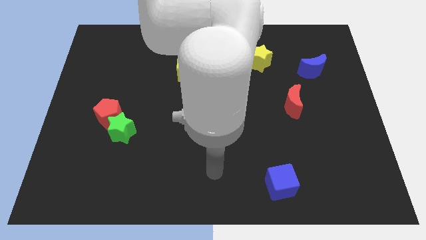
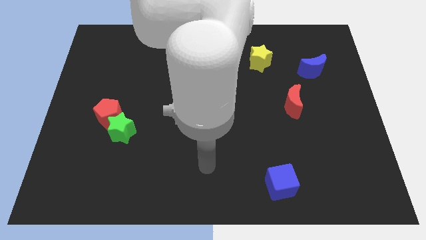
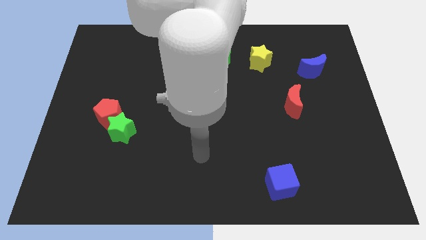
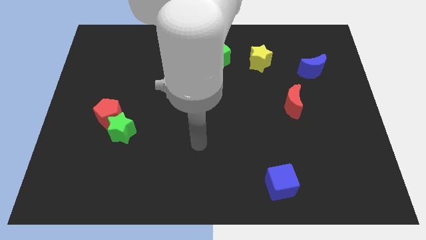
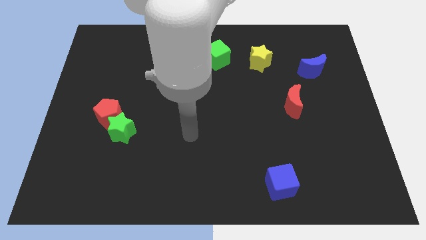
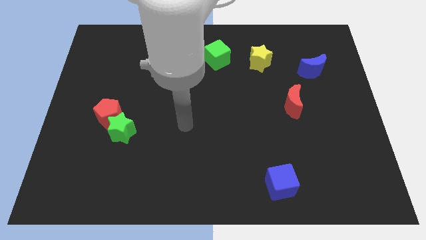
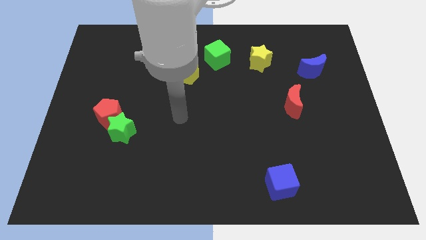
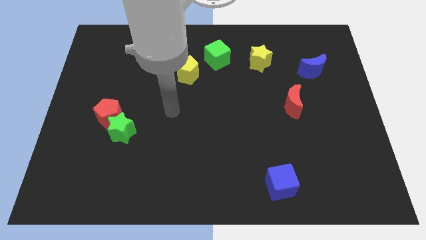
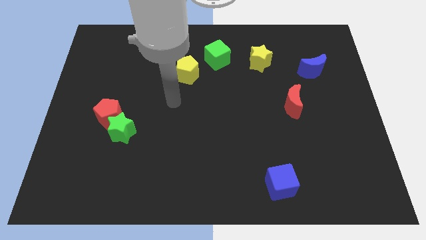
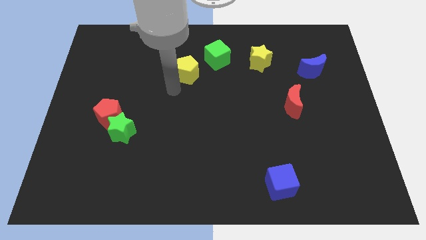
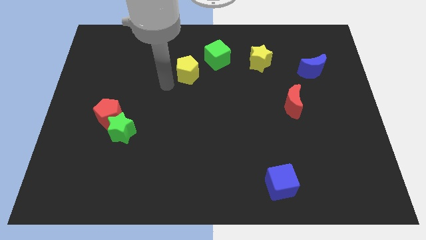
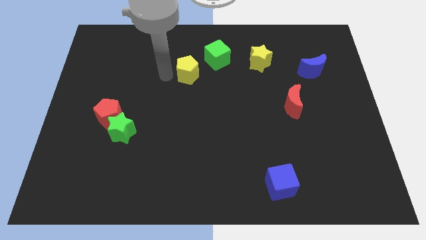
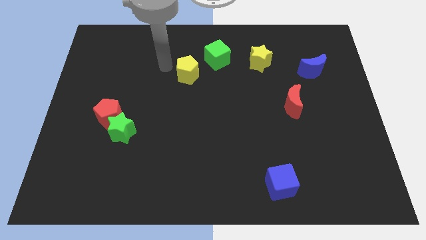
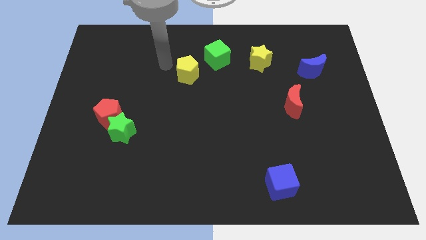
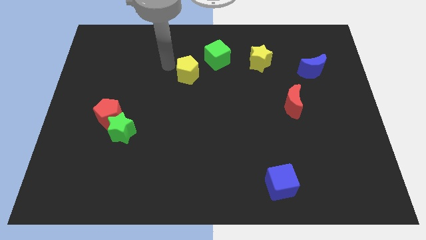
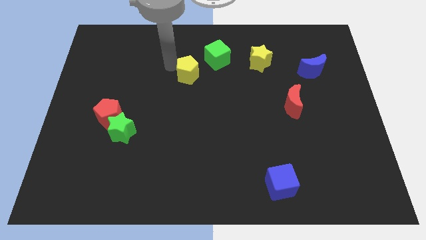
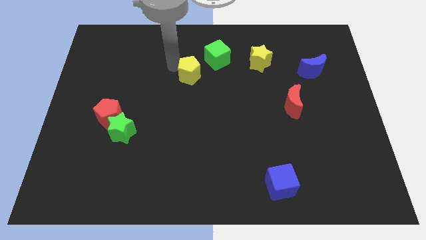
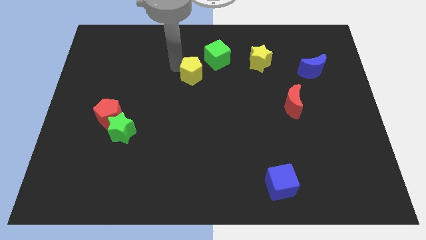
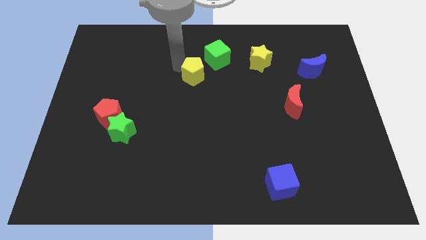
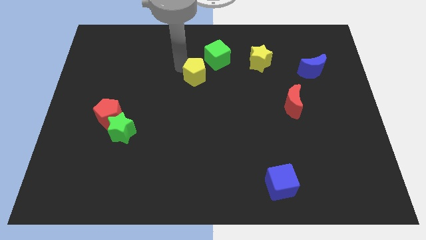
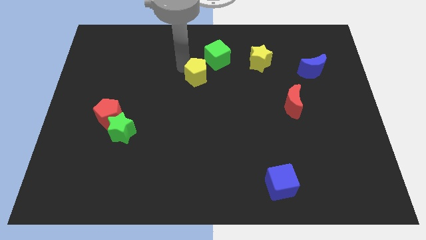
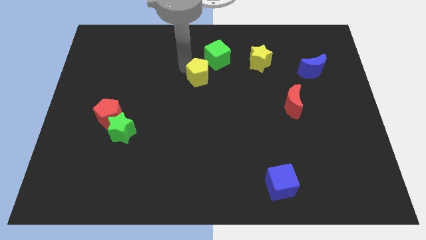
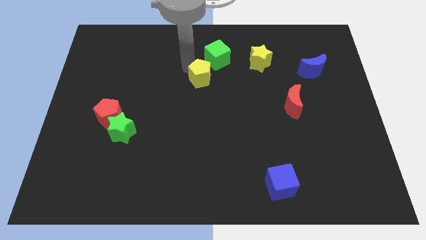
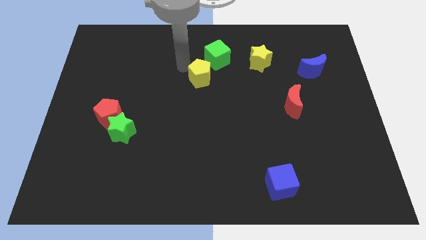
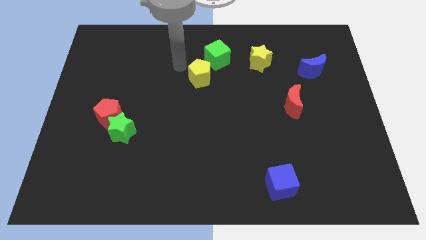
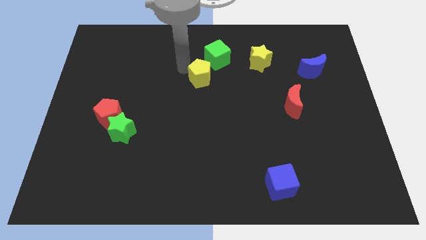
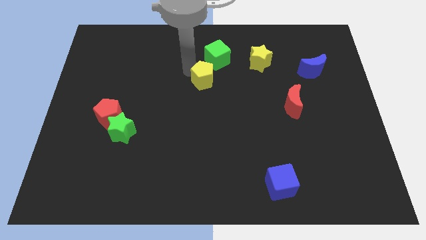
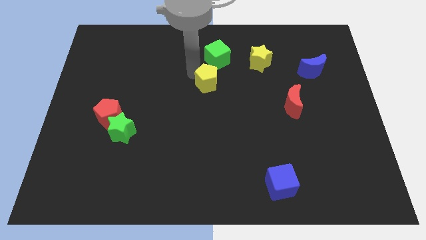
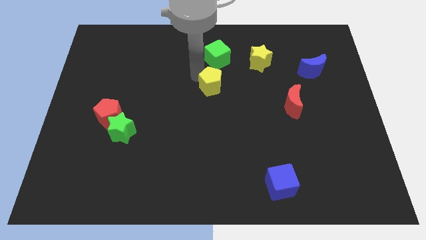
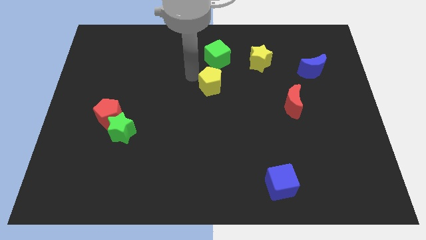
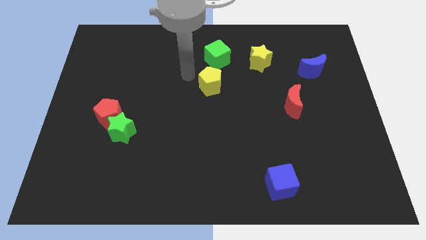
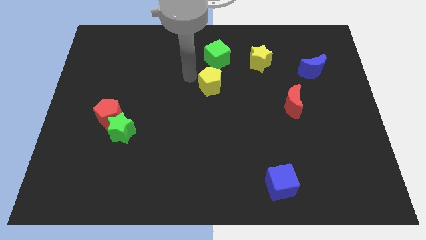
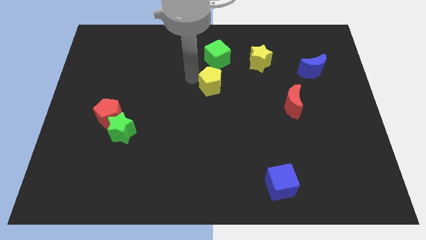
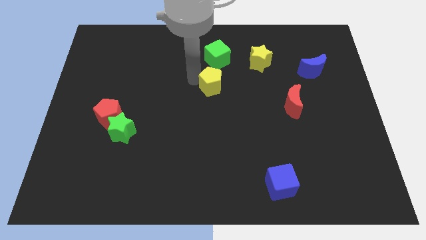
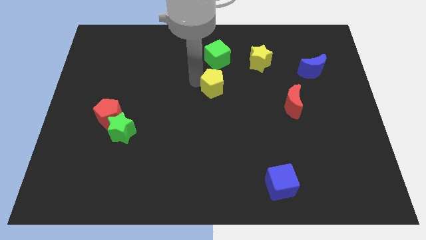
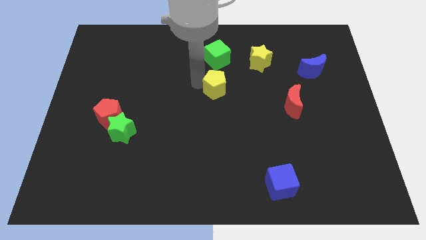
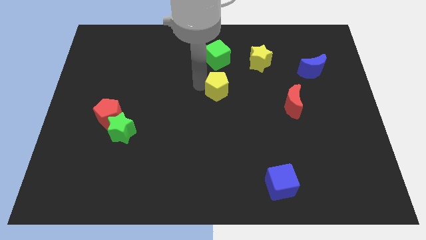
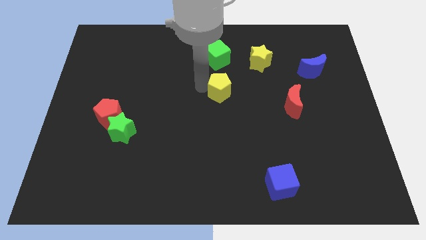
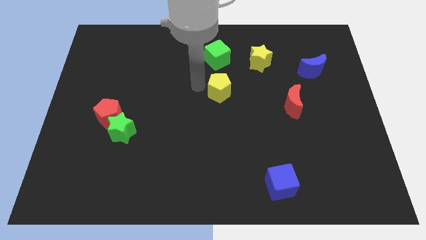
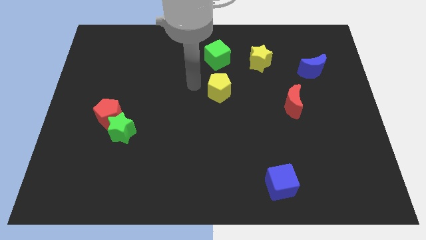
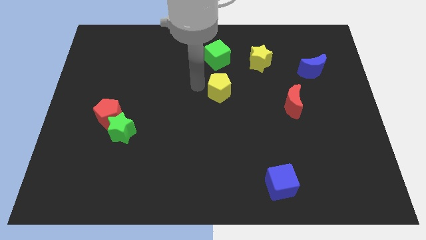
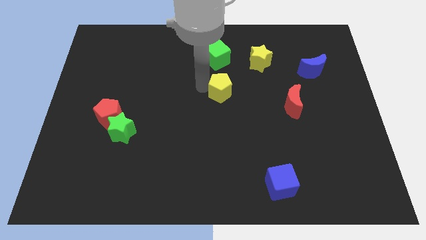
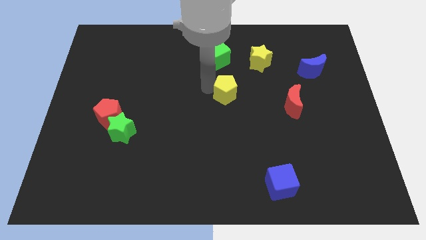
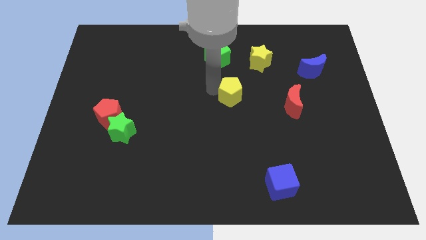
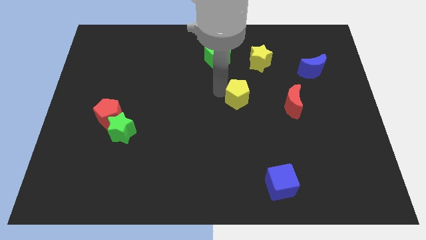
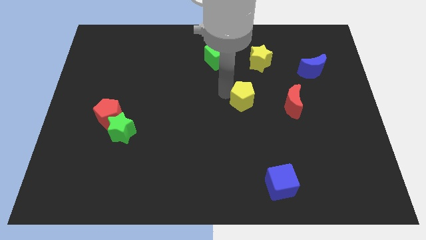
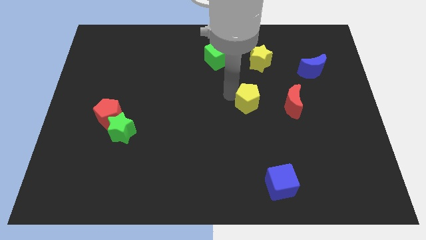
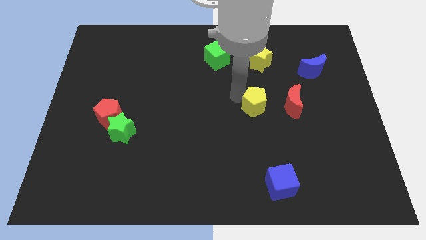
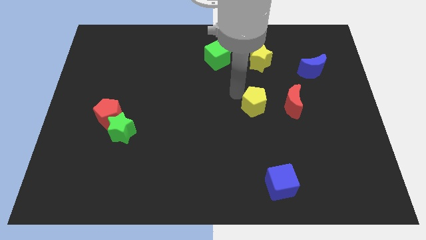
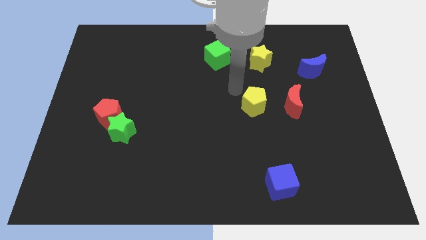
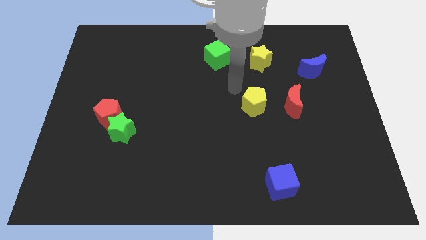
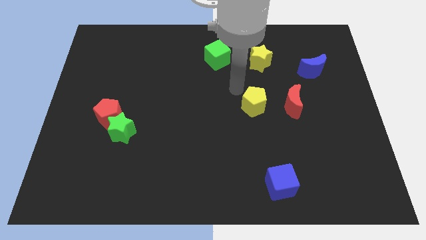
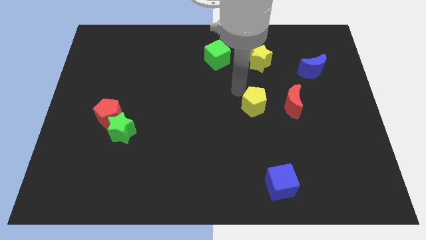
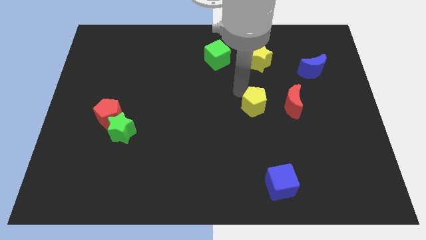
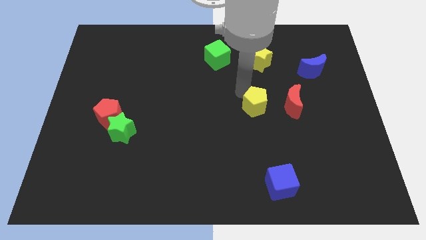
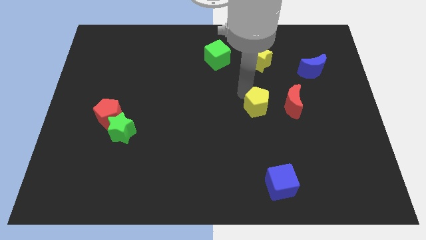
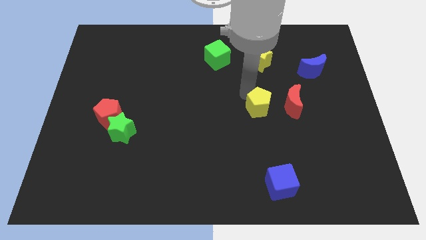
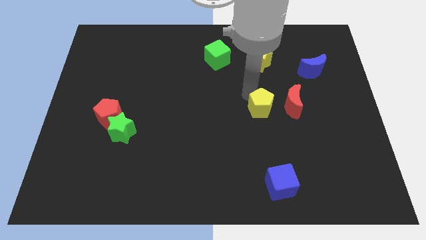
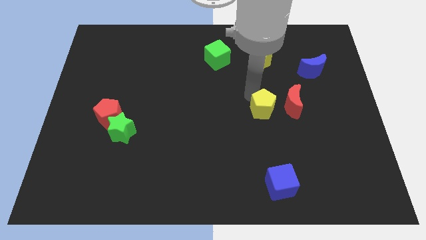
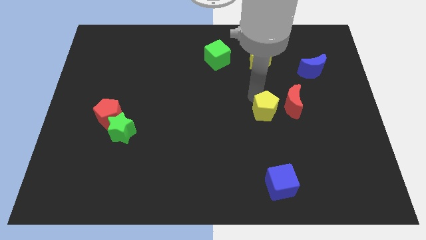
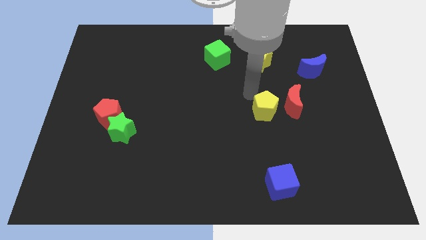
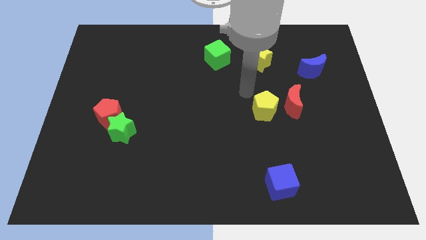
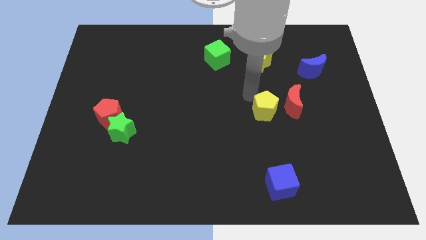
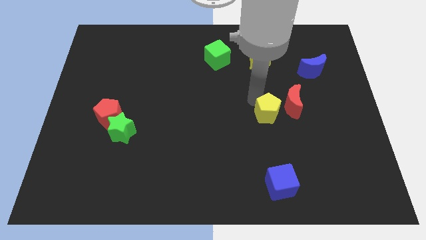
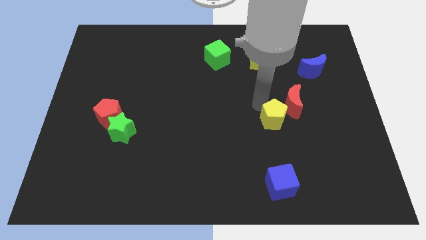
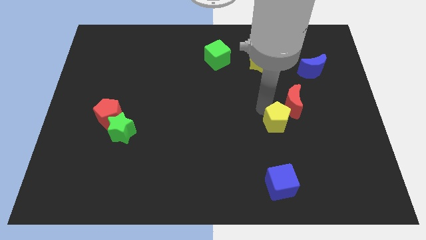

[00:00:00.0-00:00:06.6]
move the yellow pentagon to the bottom of the red moon

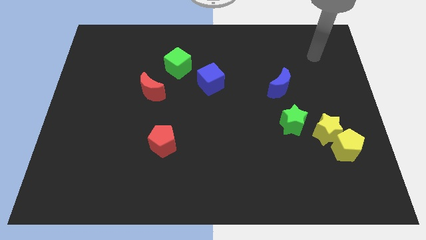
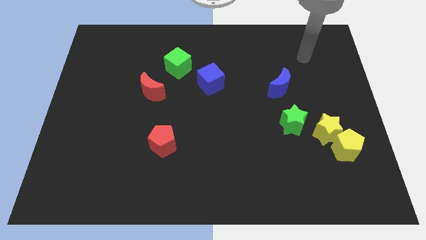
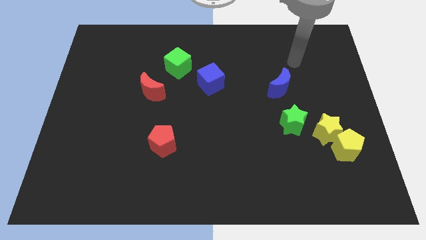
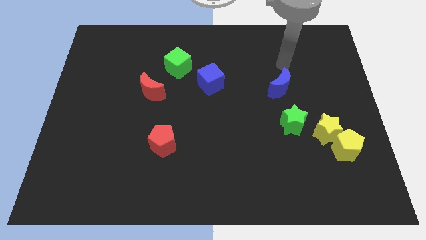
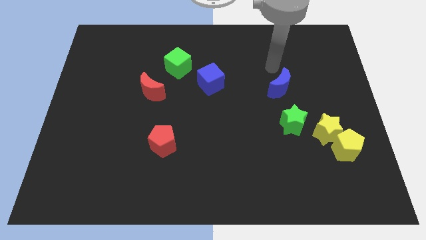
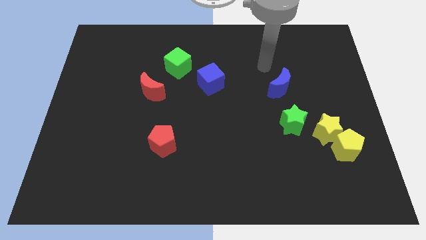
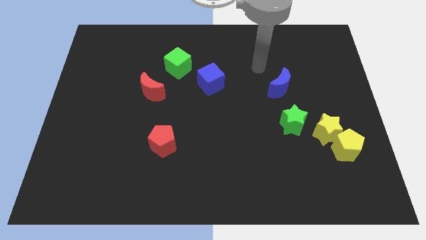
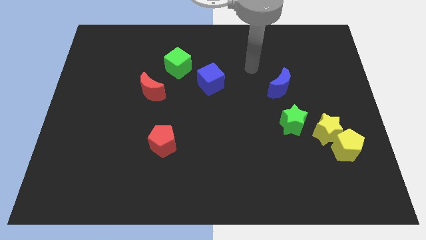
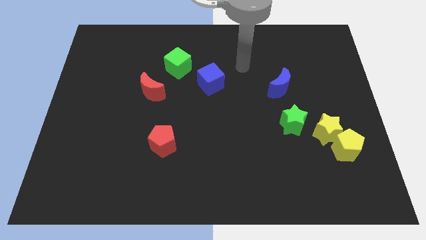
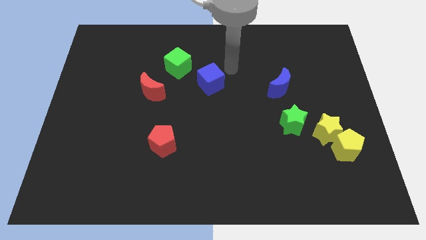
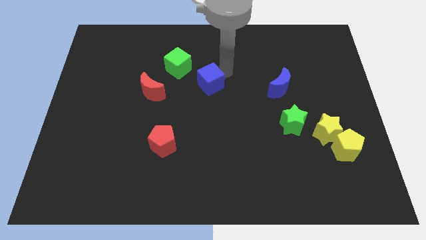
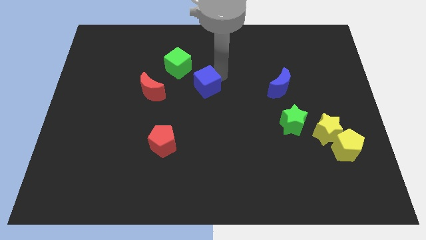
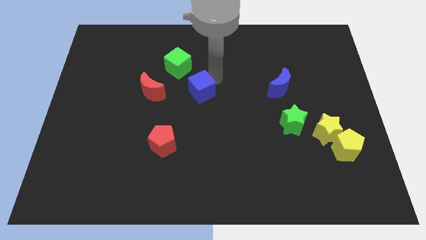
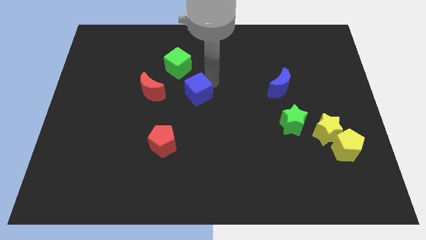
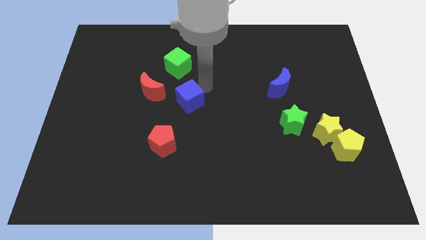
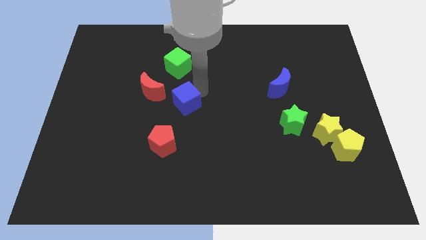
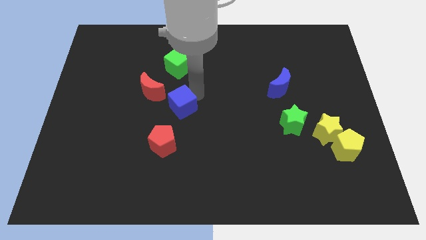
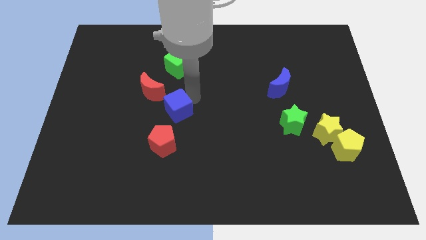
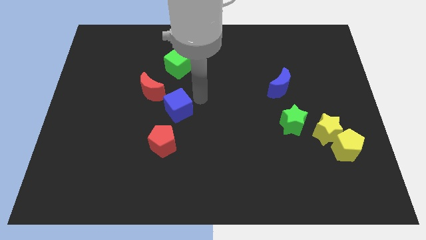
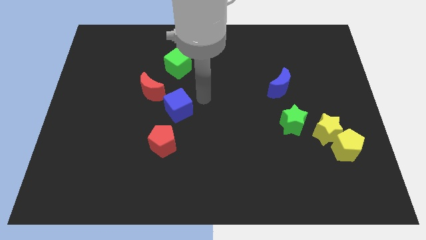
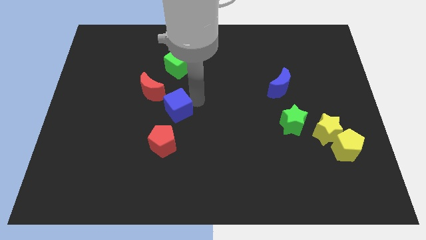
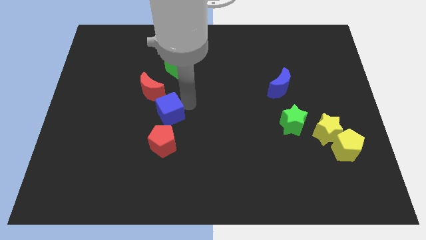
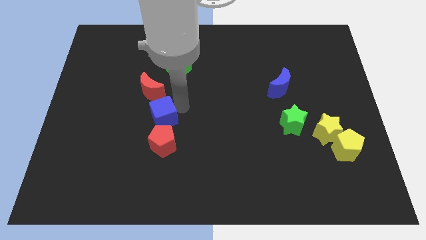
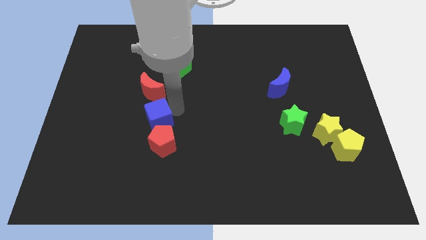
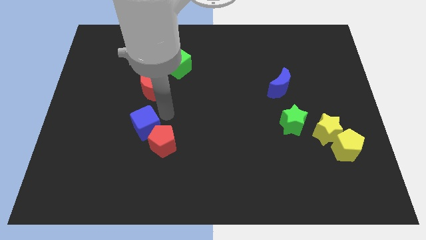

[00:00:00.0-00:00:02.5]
move the blue cube left of the red pentagon
